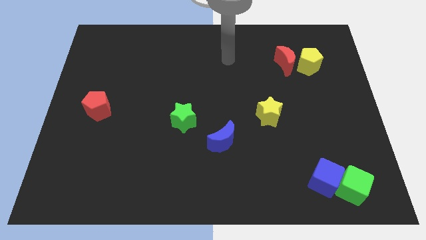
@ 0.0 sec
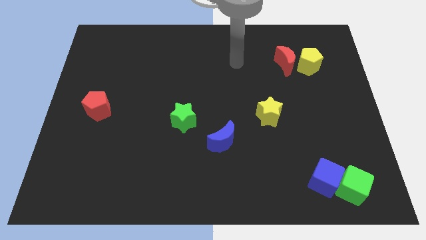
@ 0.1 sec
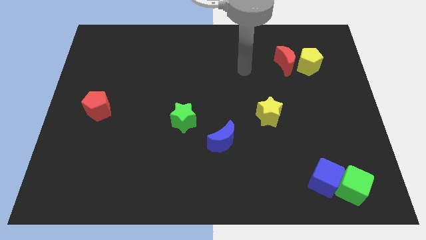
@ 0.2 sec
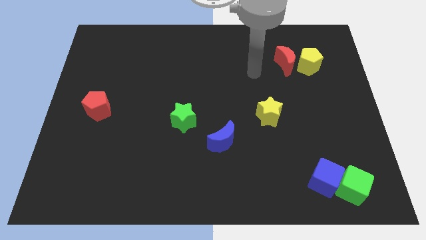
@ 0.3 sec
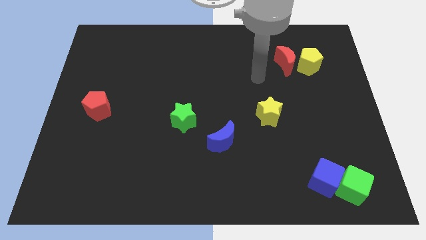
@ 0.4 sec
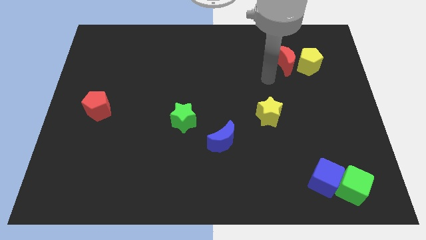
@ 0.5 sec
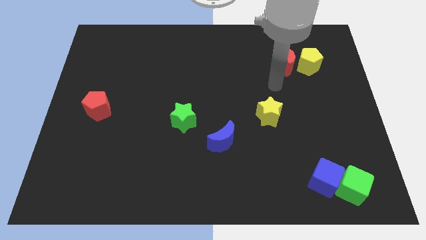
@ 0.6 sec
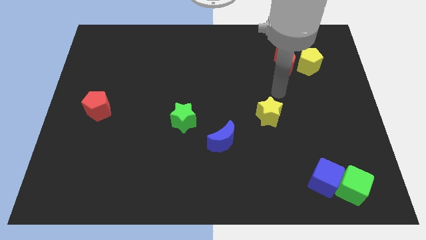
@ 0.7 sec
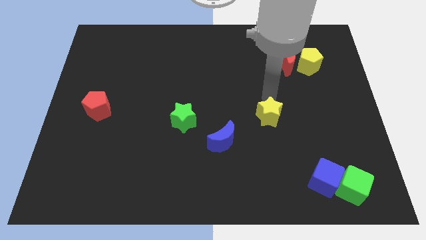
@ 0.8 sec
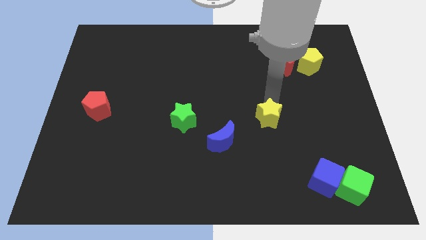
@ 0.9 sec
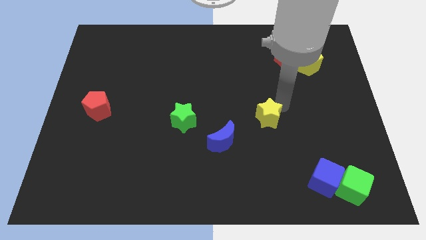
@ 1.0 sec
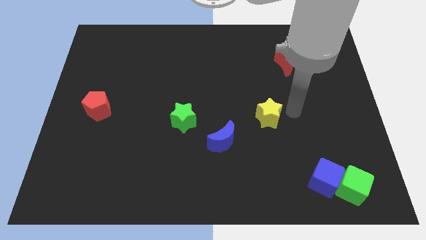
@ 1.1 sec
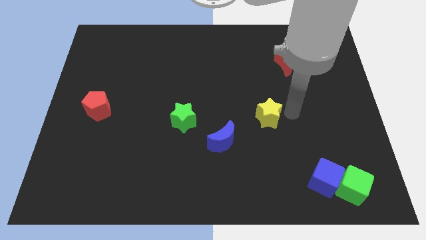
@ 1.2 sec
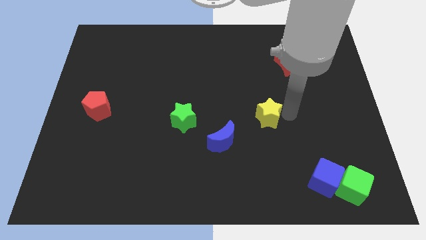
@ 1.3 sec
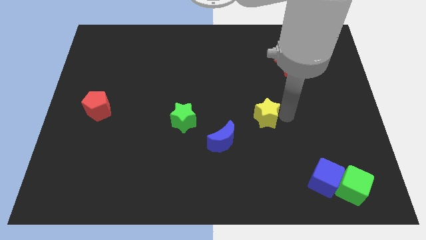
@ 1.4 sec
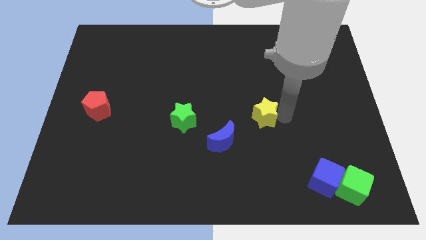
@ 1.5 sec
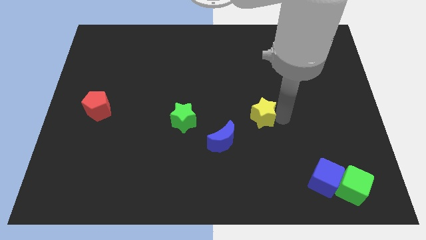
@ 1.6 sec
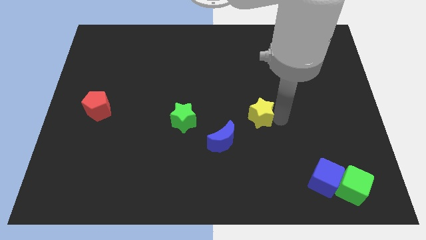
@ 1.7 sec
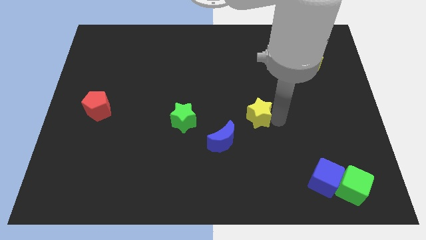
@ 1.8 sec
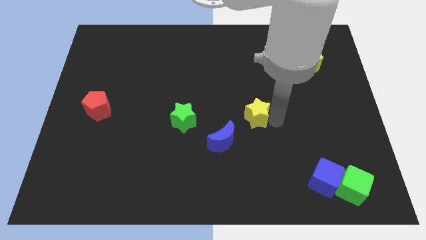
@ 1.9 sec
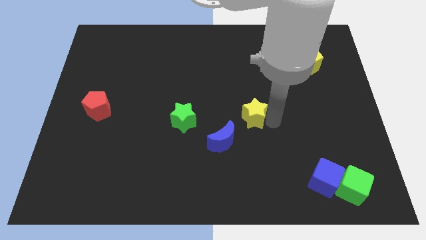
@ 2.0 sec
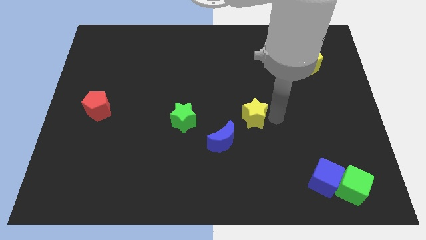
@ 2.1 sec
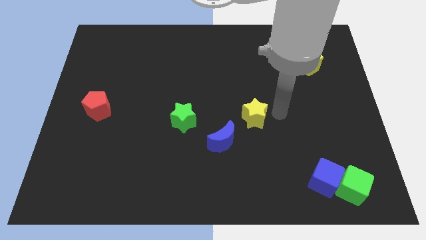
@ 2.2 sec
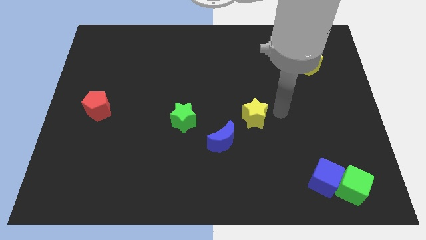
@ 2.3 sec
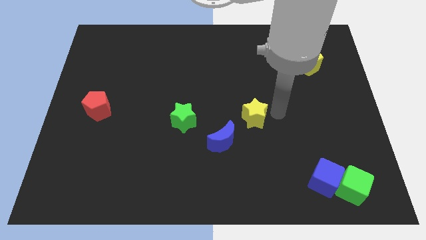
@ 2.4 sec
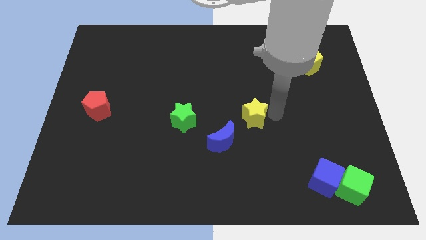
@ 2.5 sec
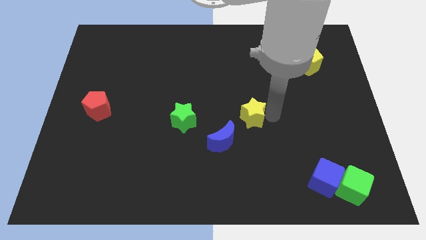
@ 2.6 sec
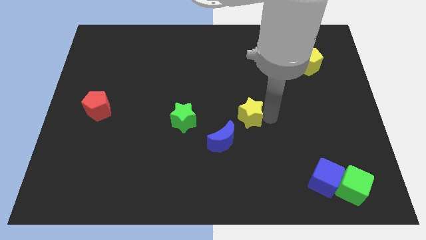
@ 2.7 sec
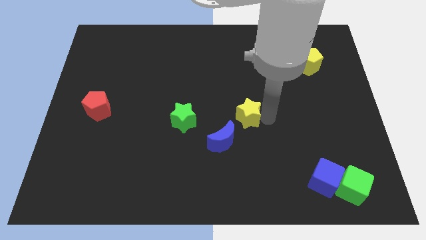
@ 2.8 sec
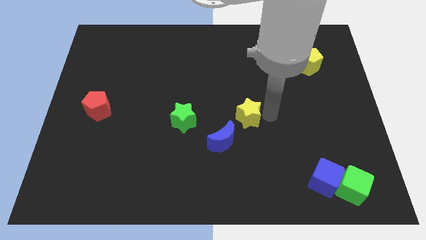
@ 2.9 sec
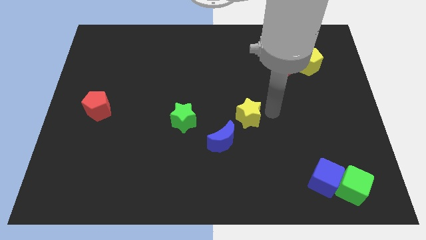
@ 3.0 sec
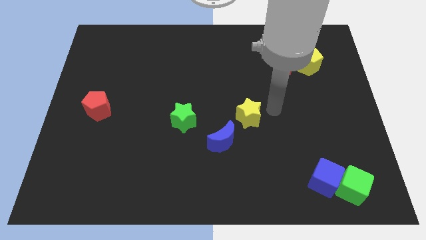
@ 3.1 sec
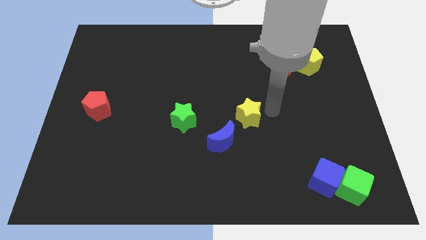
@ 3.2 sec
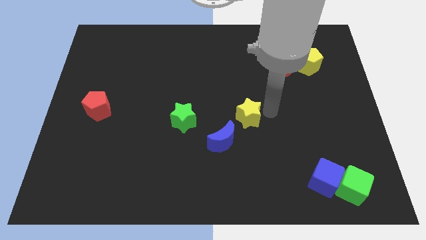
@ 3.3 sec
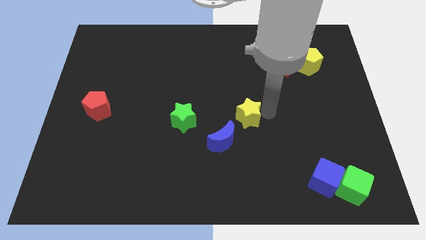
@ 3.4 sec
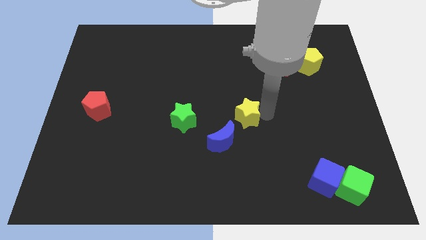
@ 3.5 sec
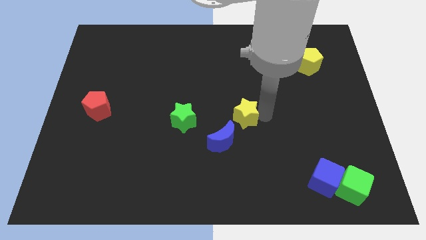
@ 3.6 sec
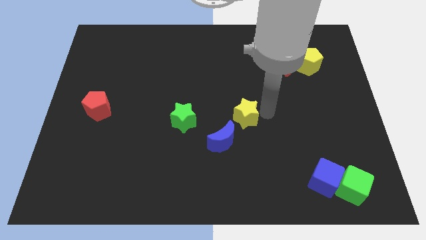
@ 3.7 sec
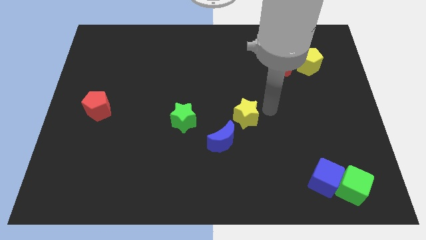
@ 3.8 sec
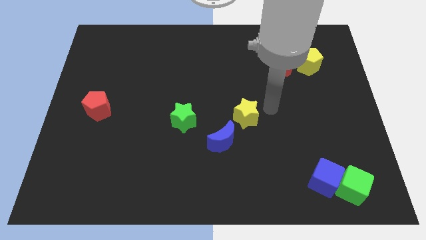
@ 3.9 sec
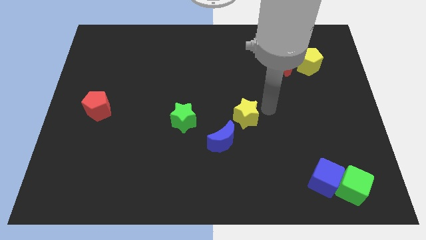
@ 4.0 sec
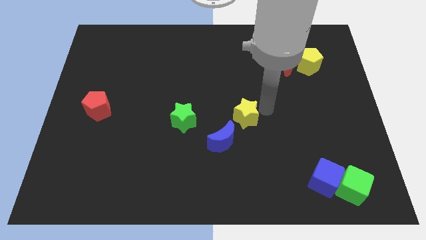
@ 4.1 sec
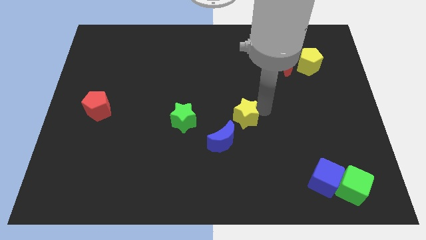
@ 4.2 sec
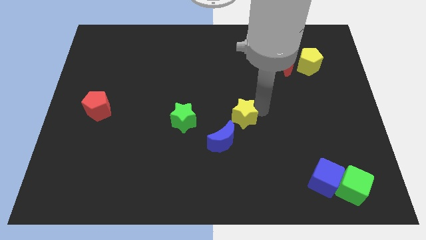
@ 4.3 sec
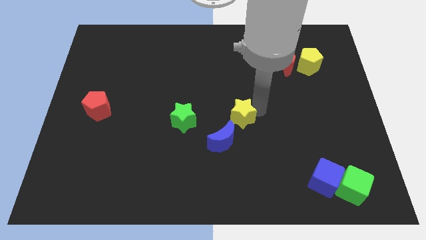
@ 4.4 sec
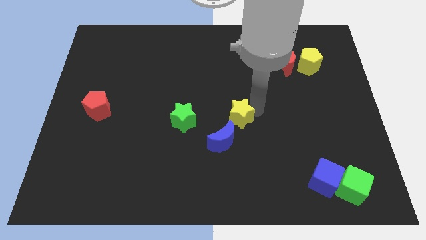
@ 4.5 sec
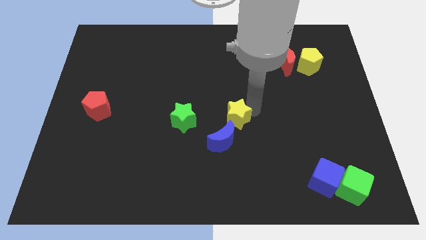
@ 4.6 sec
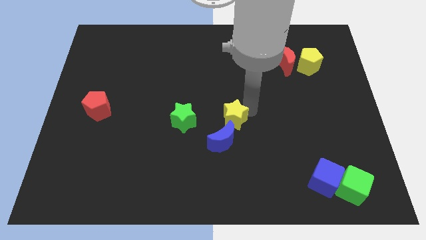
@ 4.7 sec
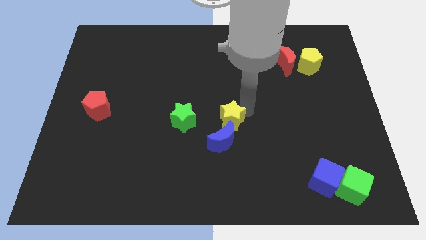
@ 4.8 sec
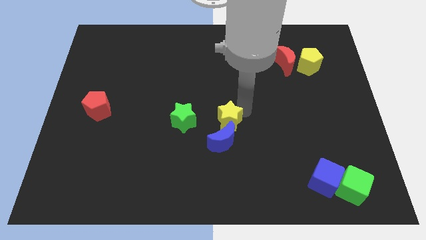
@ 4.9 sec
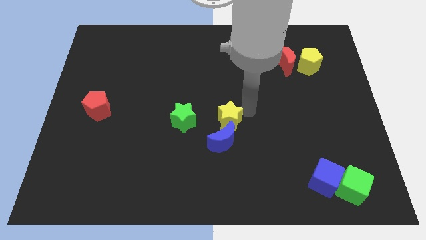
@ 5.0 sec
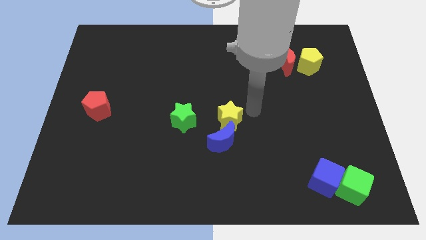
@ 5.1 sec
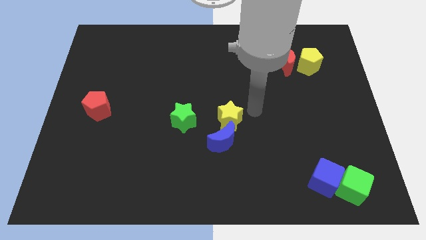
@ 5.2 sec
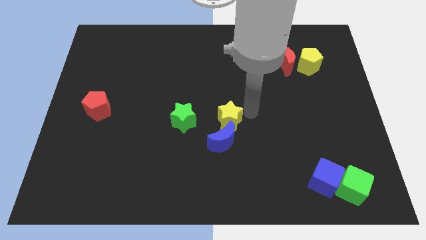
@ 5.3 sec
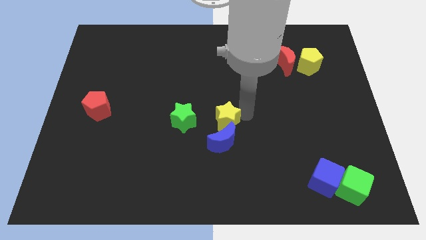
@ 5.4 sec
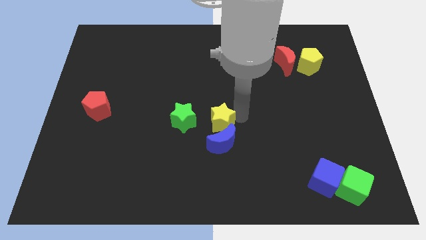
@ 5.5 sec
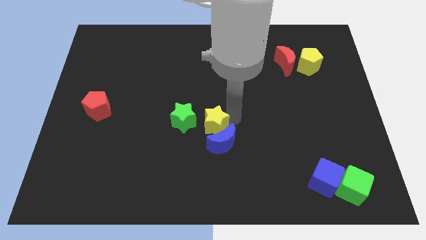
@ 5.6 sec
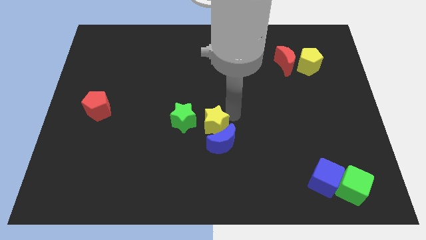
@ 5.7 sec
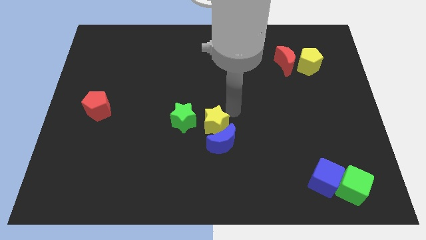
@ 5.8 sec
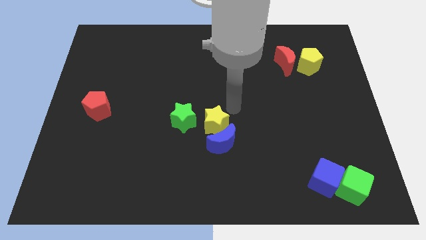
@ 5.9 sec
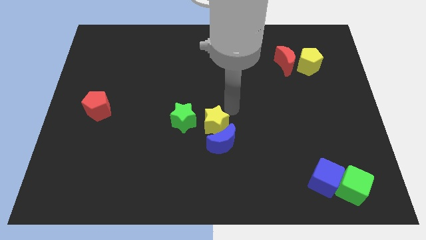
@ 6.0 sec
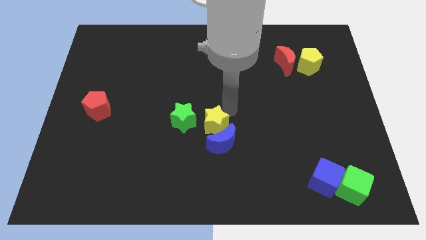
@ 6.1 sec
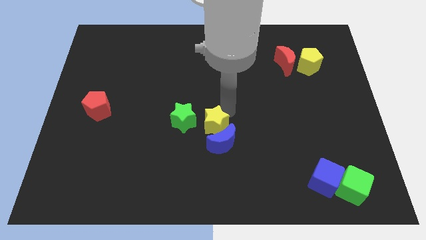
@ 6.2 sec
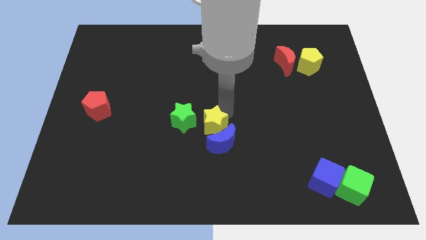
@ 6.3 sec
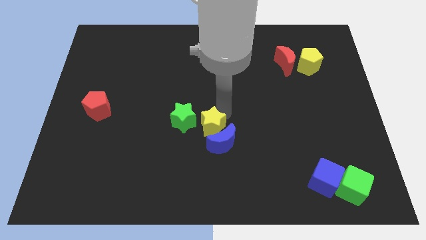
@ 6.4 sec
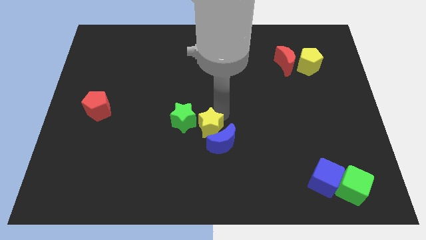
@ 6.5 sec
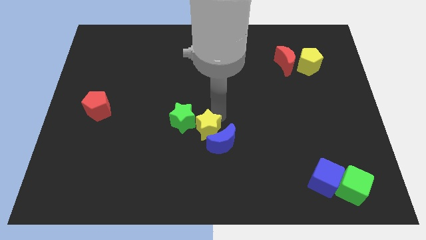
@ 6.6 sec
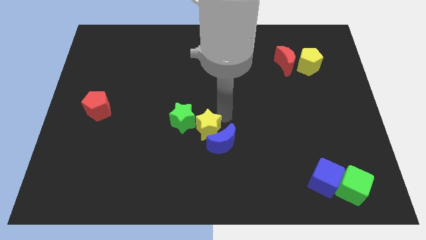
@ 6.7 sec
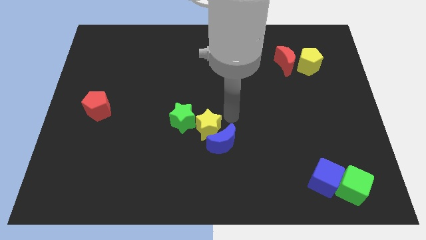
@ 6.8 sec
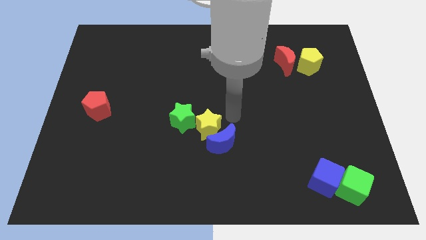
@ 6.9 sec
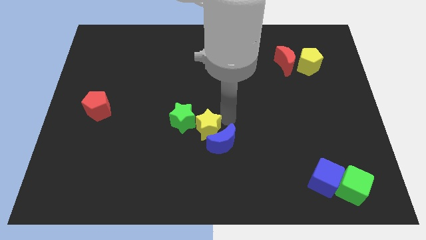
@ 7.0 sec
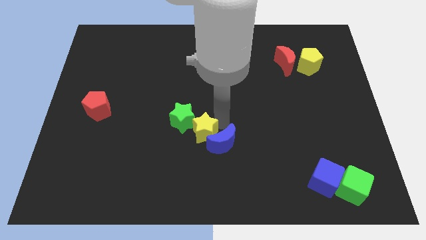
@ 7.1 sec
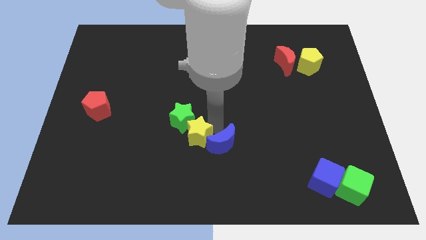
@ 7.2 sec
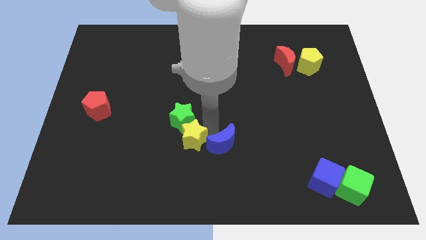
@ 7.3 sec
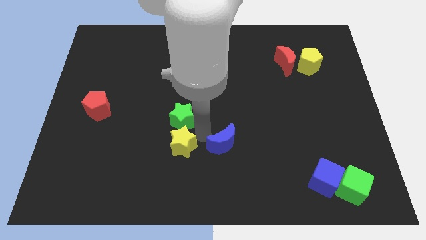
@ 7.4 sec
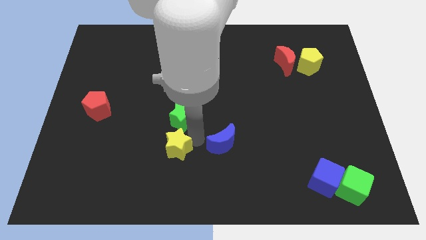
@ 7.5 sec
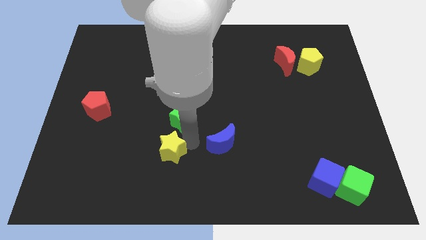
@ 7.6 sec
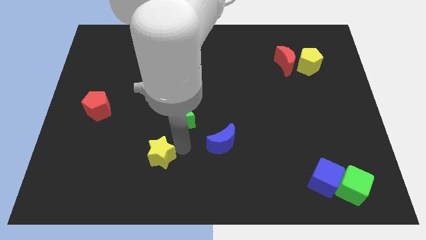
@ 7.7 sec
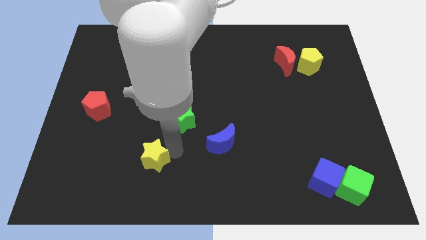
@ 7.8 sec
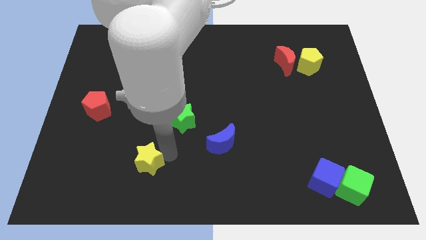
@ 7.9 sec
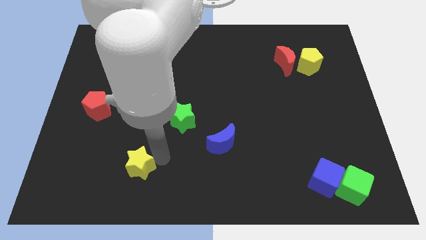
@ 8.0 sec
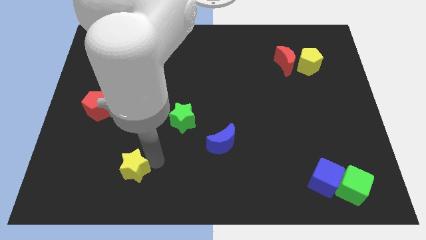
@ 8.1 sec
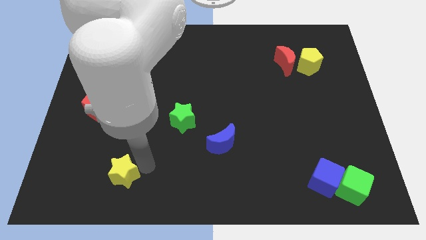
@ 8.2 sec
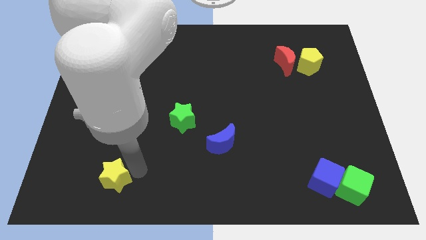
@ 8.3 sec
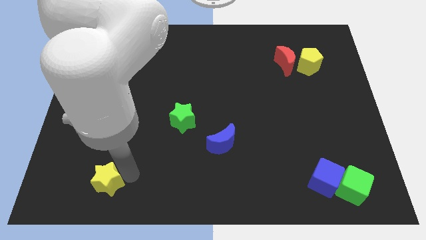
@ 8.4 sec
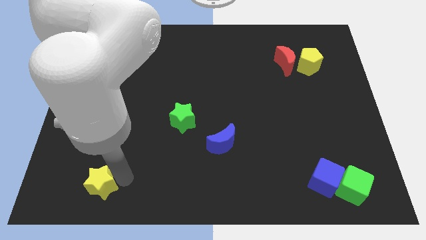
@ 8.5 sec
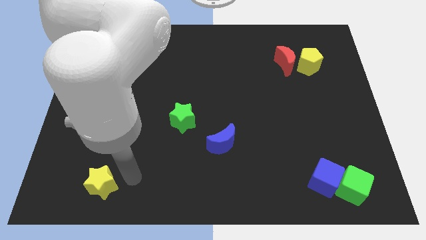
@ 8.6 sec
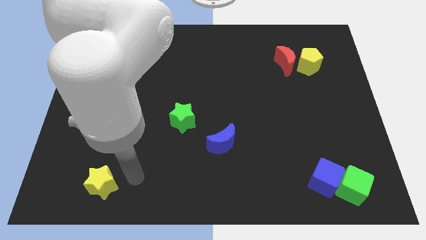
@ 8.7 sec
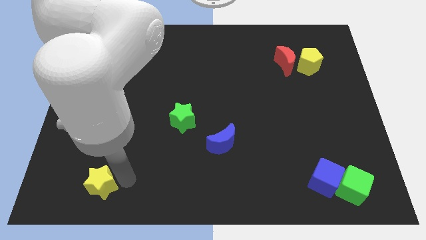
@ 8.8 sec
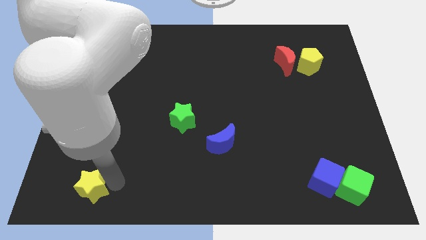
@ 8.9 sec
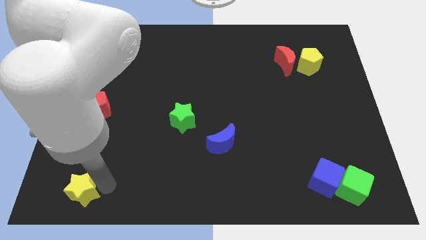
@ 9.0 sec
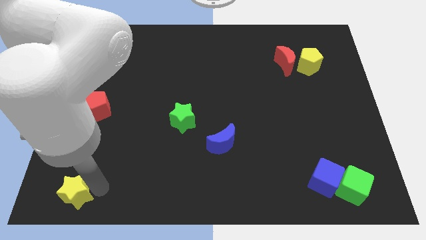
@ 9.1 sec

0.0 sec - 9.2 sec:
move the yellow star to the bottom left corner
